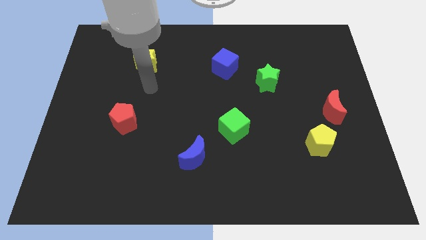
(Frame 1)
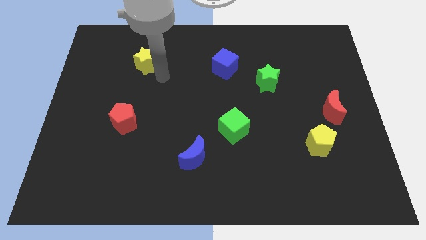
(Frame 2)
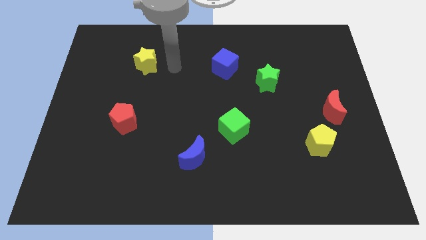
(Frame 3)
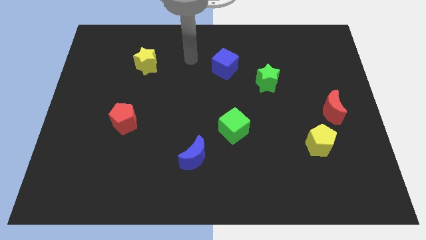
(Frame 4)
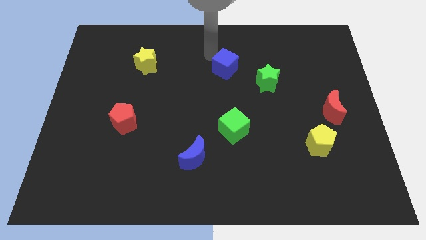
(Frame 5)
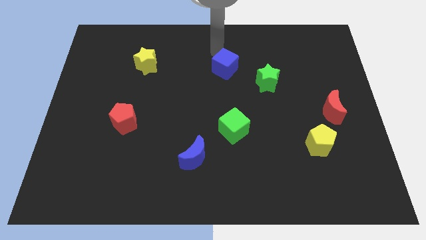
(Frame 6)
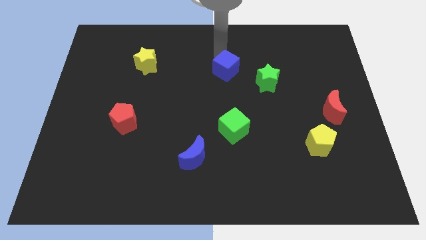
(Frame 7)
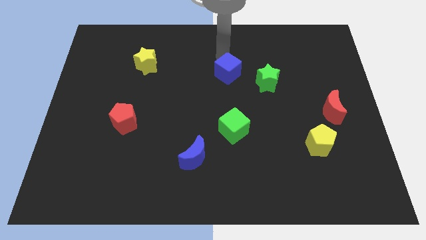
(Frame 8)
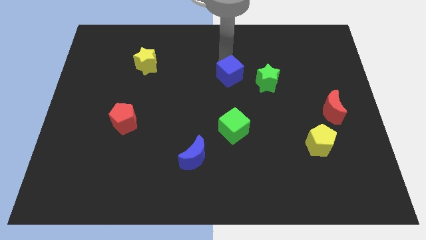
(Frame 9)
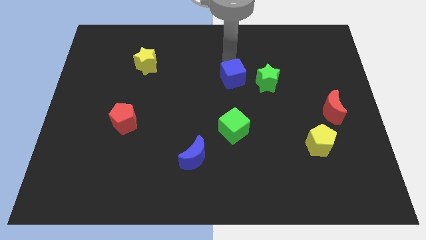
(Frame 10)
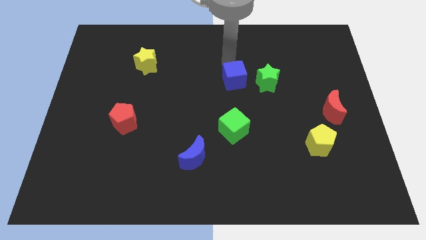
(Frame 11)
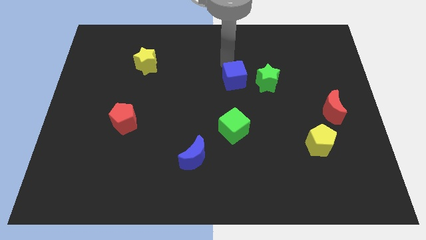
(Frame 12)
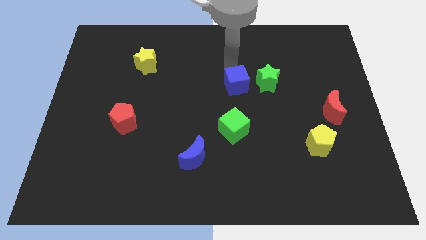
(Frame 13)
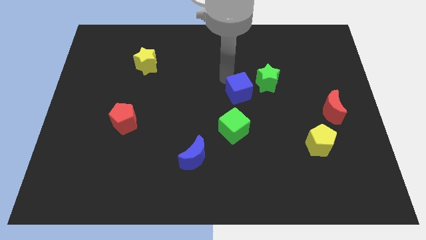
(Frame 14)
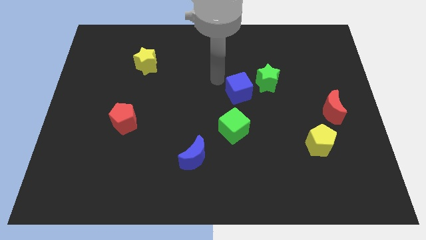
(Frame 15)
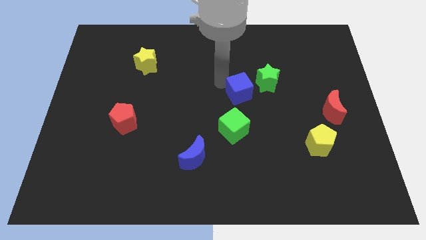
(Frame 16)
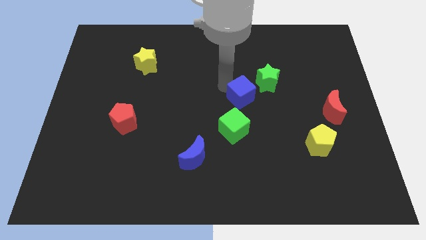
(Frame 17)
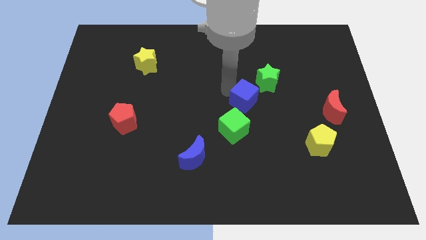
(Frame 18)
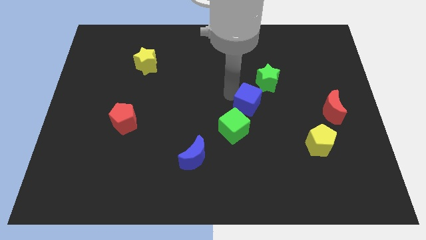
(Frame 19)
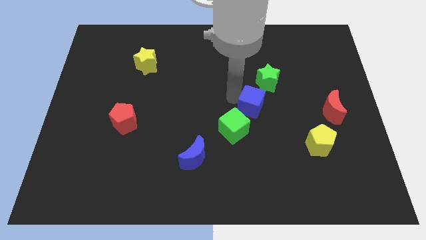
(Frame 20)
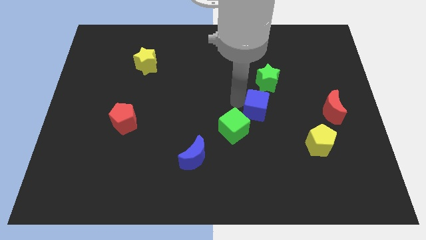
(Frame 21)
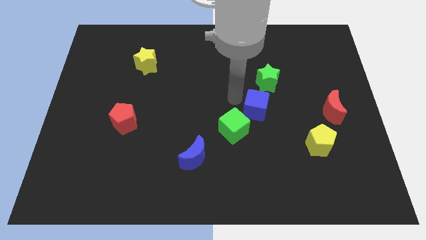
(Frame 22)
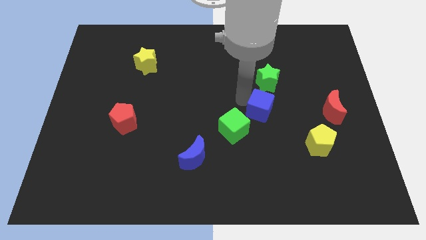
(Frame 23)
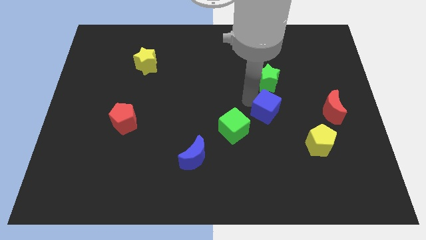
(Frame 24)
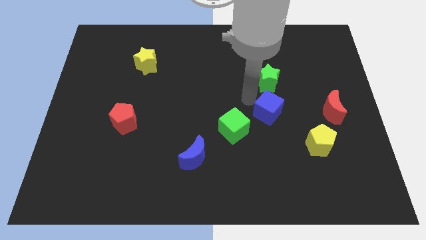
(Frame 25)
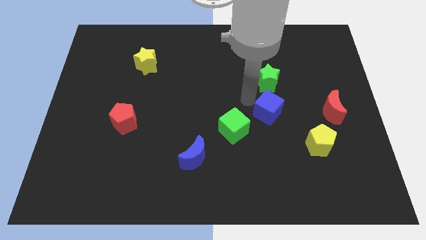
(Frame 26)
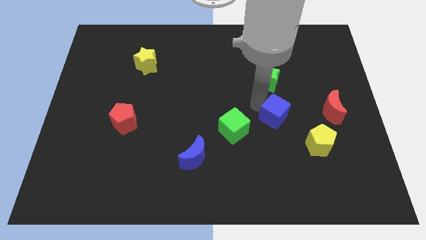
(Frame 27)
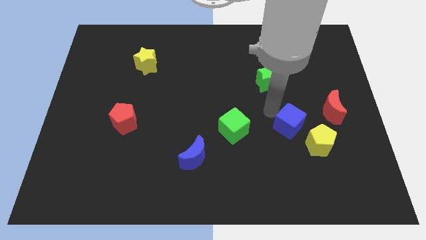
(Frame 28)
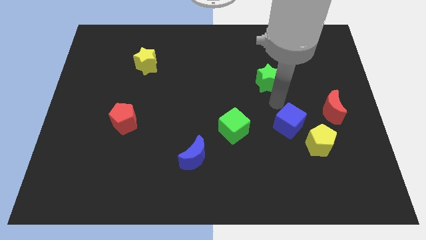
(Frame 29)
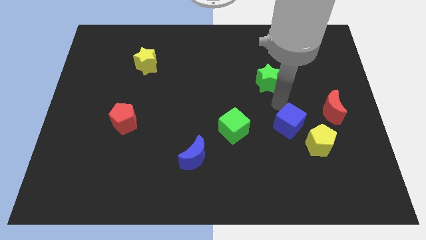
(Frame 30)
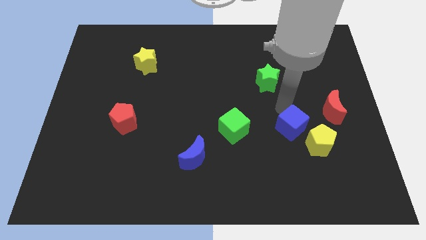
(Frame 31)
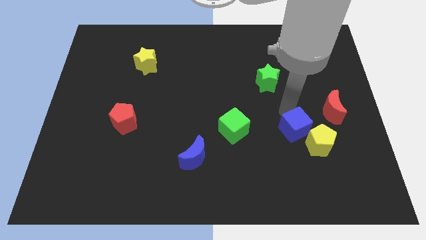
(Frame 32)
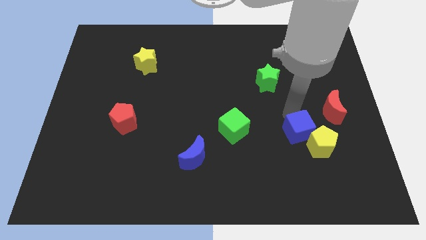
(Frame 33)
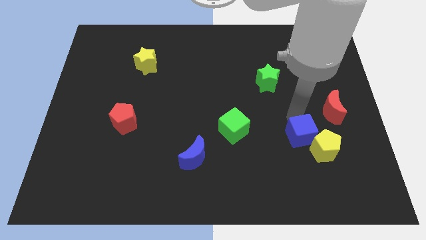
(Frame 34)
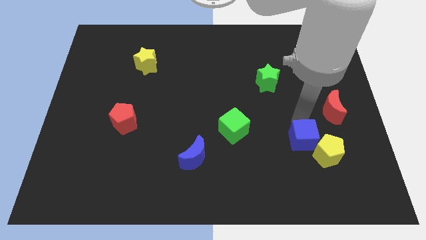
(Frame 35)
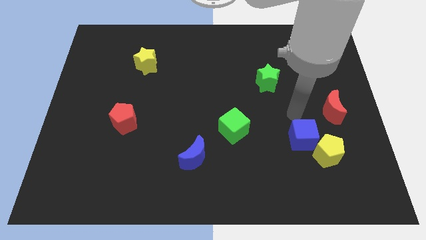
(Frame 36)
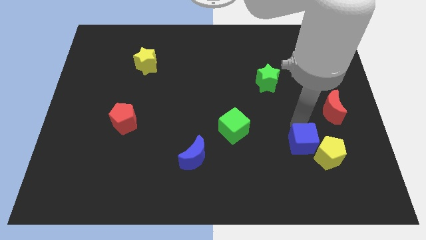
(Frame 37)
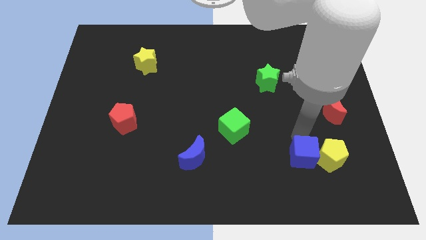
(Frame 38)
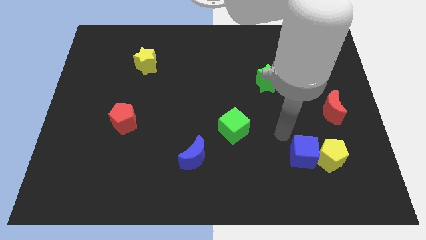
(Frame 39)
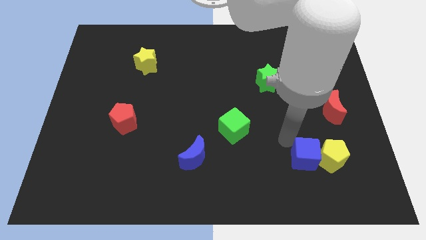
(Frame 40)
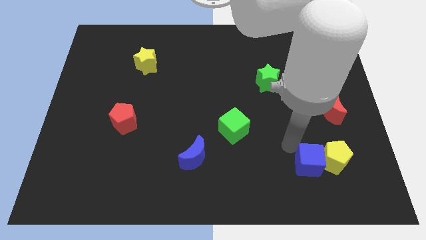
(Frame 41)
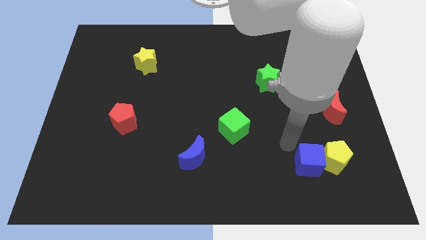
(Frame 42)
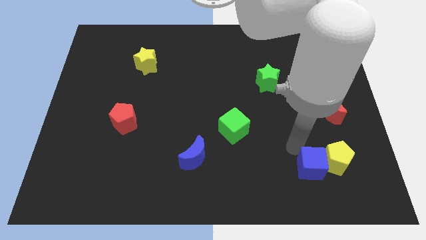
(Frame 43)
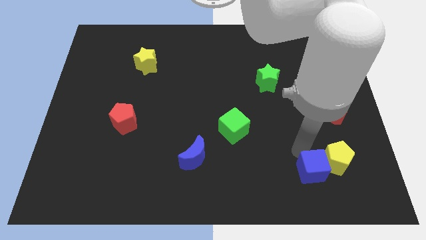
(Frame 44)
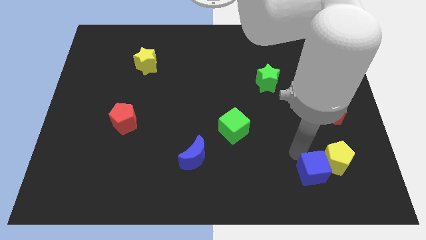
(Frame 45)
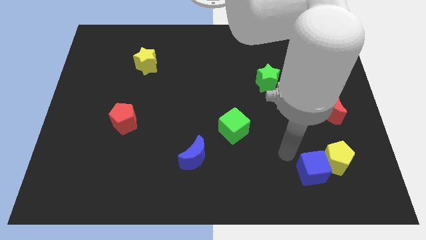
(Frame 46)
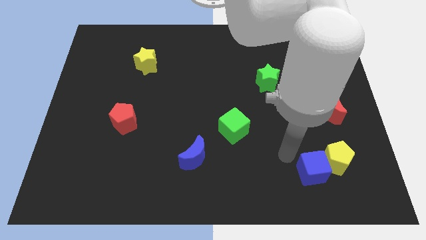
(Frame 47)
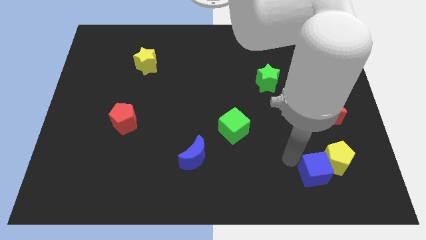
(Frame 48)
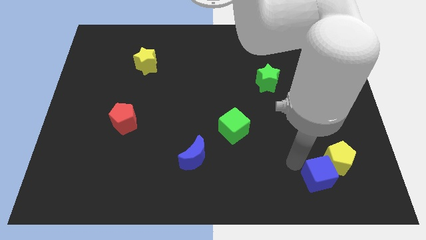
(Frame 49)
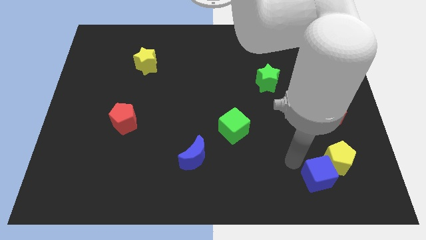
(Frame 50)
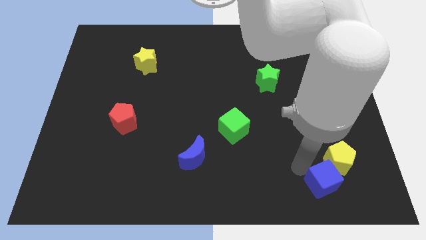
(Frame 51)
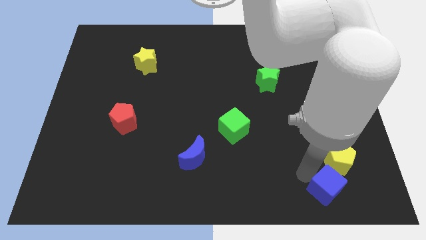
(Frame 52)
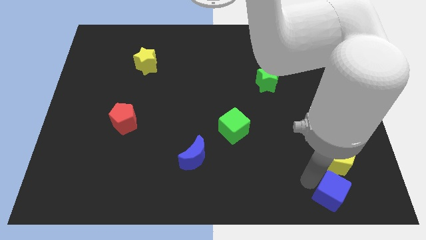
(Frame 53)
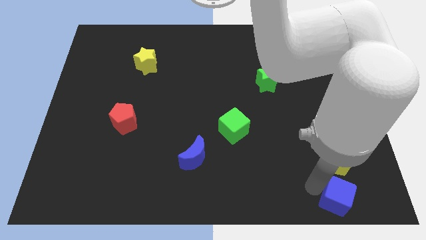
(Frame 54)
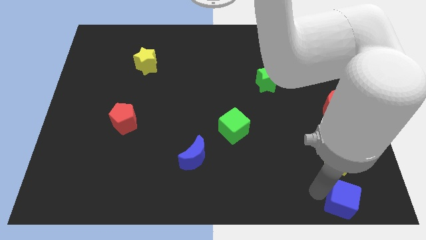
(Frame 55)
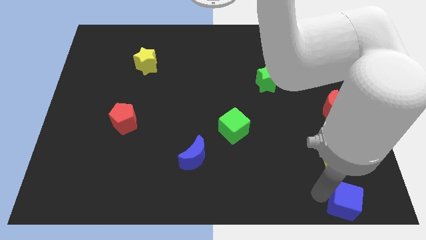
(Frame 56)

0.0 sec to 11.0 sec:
slide the blue cube to the bottom right corner
